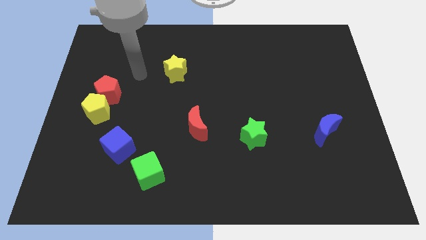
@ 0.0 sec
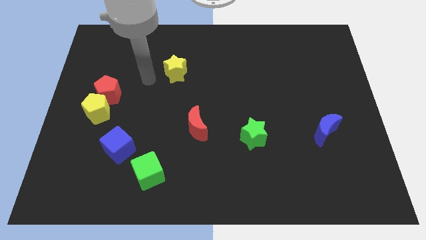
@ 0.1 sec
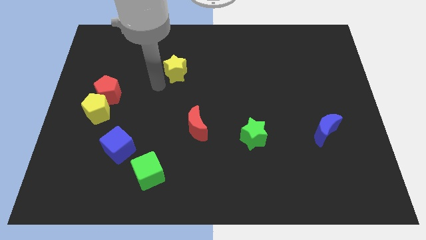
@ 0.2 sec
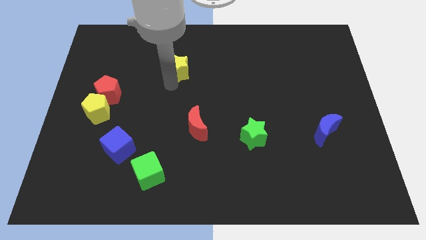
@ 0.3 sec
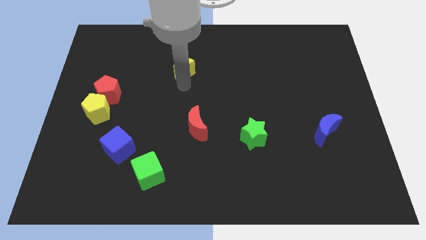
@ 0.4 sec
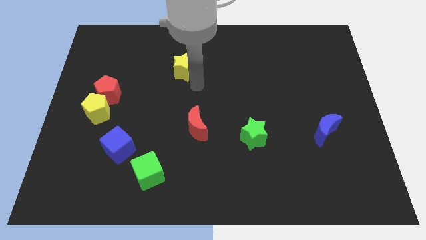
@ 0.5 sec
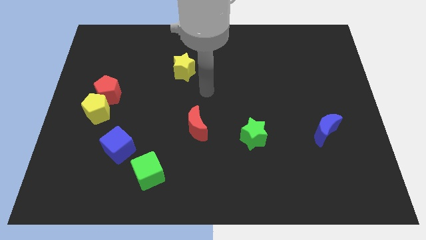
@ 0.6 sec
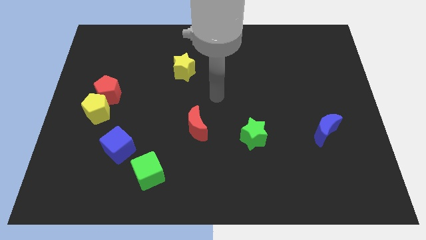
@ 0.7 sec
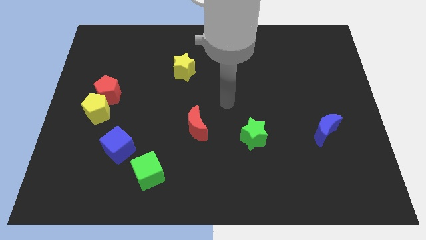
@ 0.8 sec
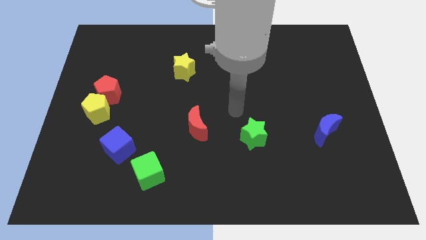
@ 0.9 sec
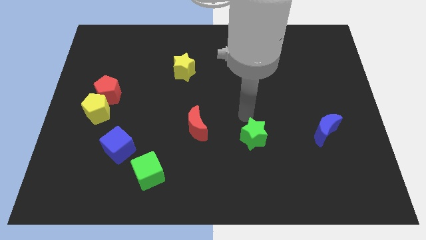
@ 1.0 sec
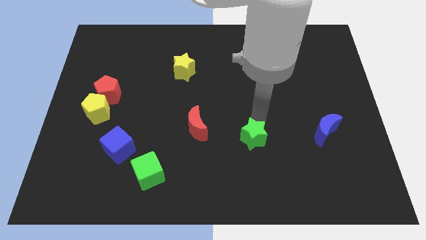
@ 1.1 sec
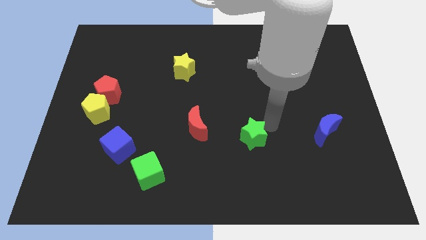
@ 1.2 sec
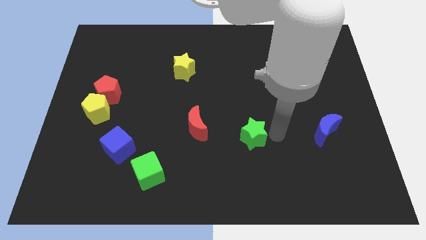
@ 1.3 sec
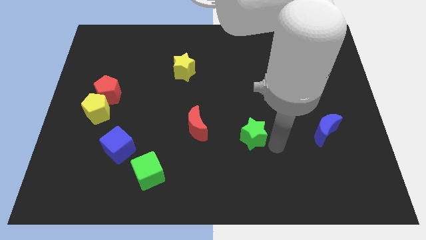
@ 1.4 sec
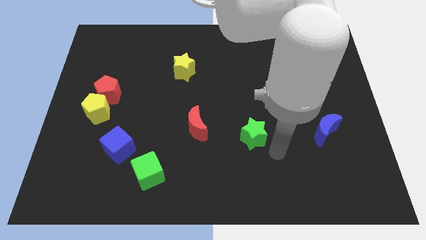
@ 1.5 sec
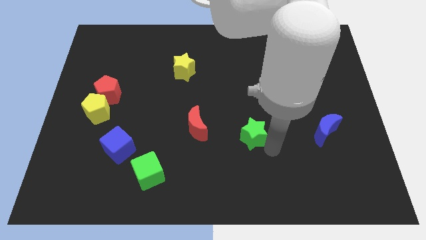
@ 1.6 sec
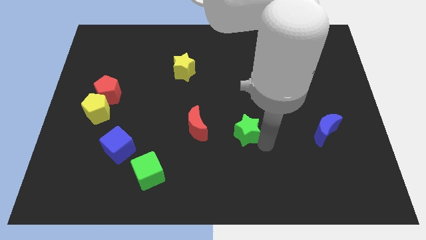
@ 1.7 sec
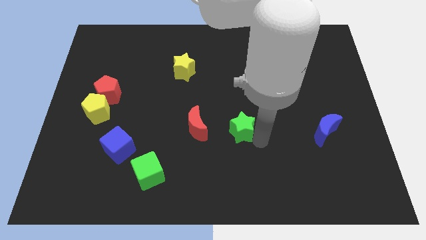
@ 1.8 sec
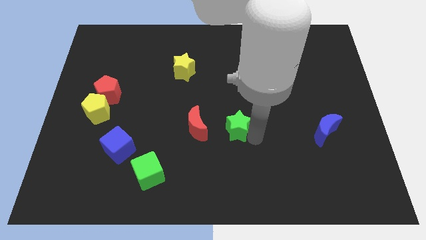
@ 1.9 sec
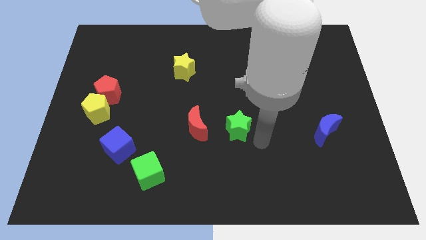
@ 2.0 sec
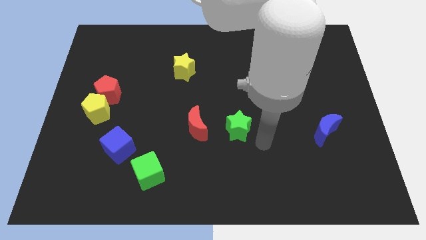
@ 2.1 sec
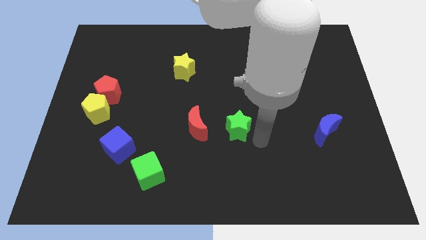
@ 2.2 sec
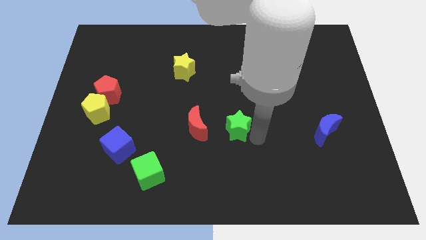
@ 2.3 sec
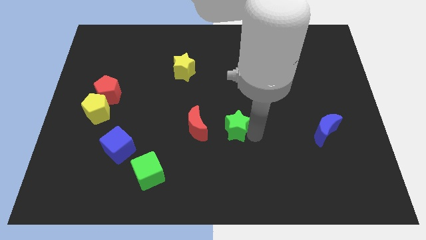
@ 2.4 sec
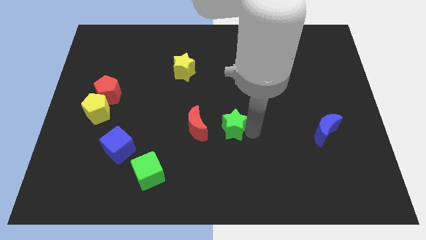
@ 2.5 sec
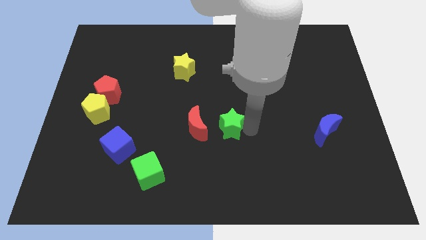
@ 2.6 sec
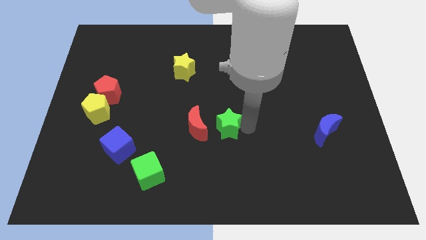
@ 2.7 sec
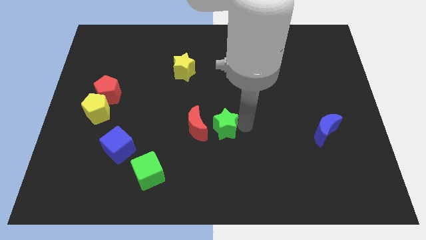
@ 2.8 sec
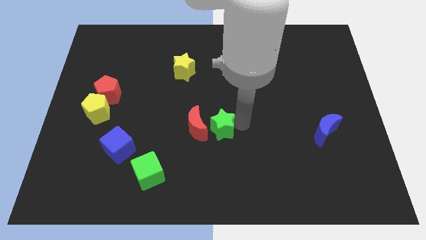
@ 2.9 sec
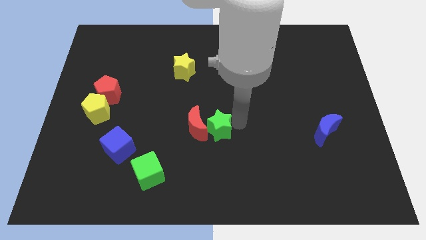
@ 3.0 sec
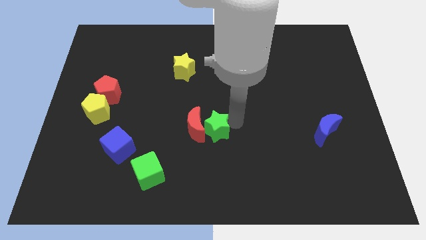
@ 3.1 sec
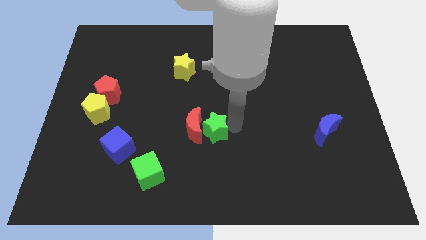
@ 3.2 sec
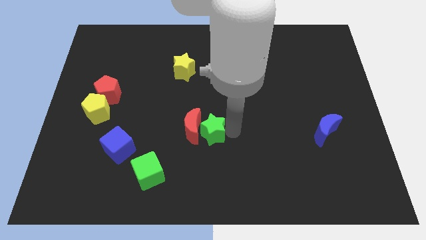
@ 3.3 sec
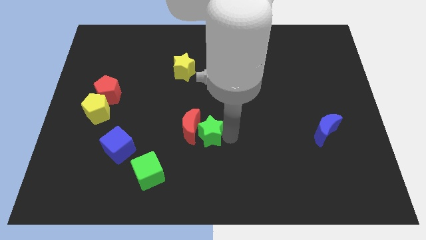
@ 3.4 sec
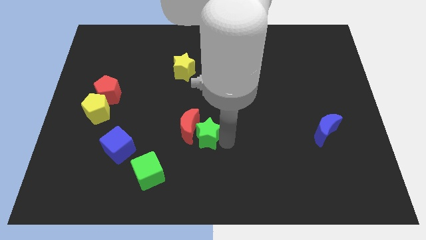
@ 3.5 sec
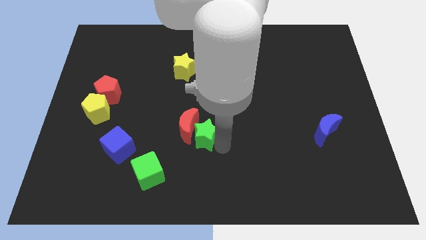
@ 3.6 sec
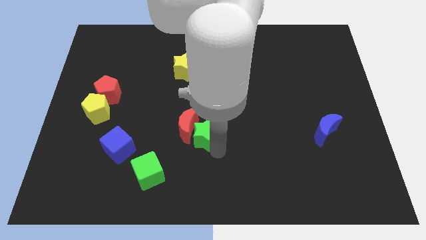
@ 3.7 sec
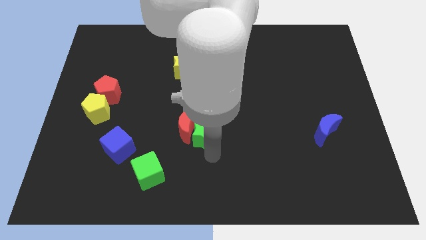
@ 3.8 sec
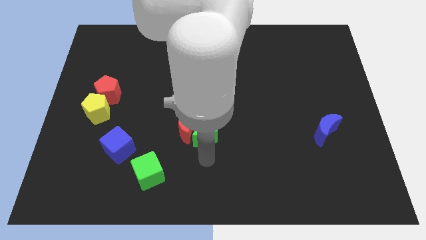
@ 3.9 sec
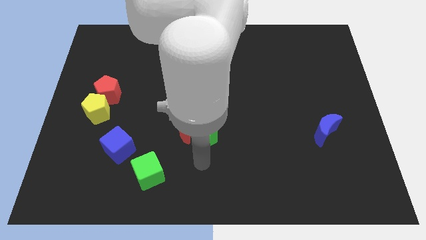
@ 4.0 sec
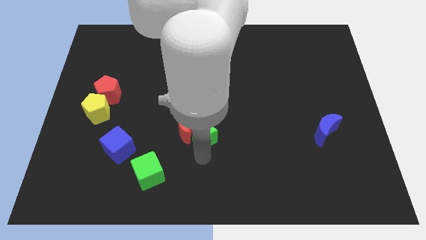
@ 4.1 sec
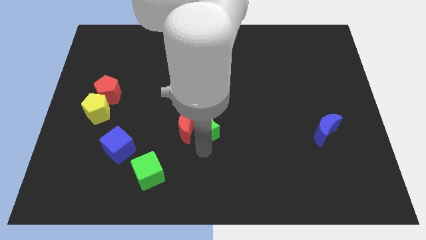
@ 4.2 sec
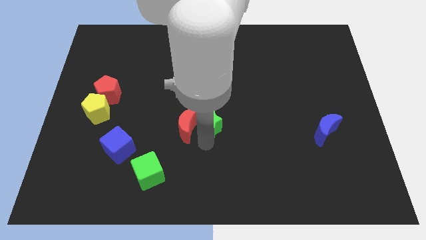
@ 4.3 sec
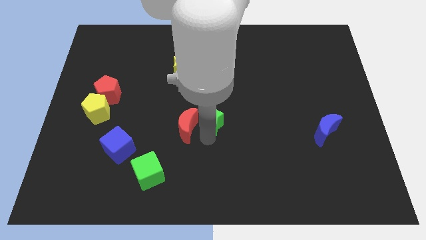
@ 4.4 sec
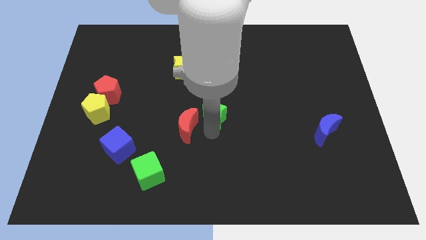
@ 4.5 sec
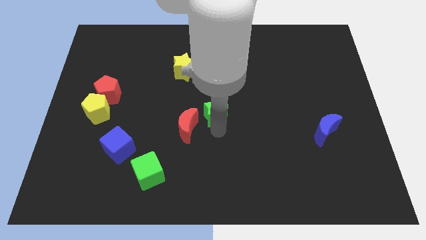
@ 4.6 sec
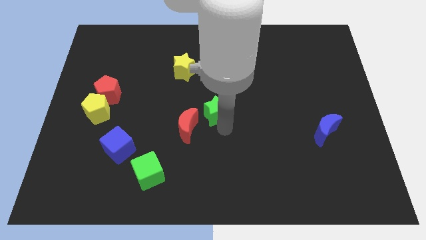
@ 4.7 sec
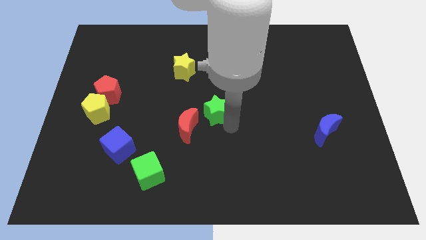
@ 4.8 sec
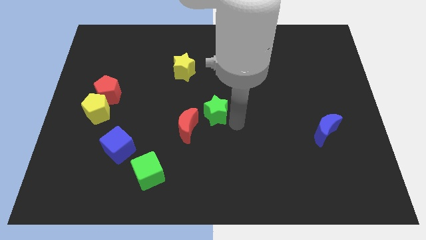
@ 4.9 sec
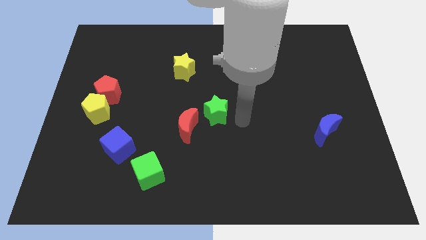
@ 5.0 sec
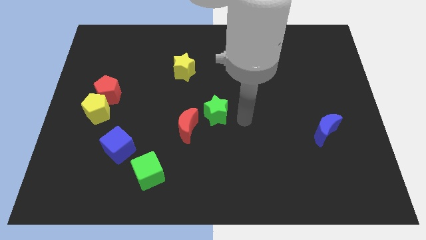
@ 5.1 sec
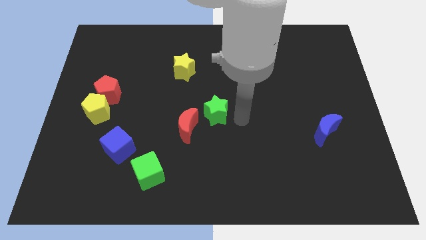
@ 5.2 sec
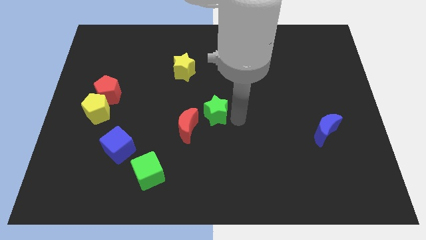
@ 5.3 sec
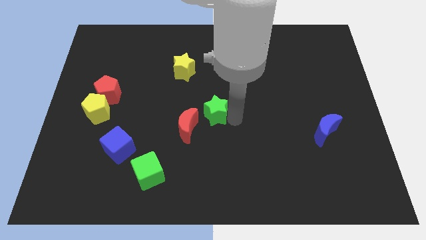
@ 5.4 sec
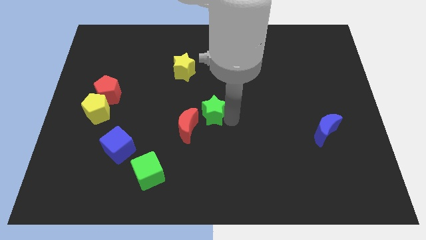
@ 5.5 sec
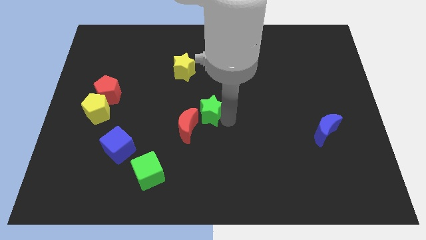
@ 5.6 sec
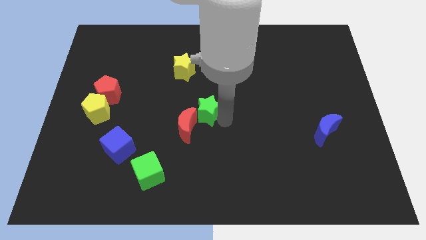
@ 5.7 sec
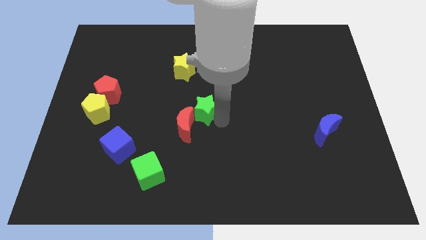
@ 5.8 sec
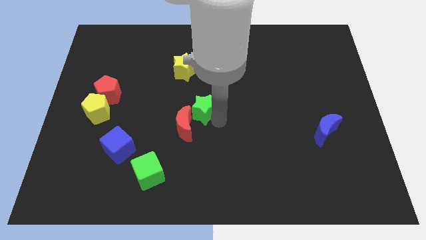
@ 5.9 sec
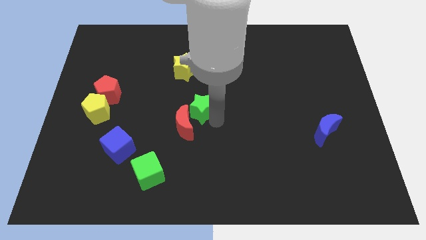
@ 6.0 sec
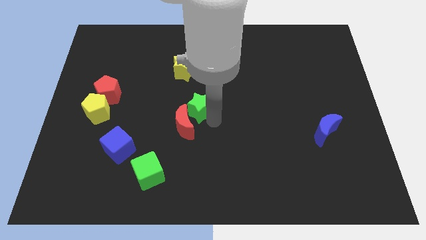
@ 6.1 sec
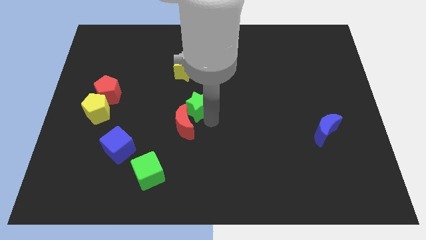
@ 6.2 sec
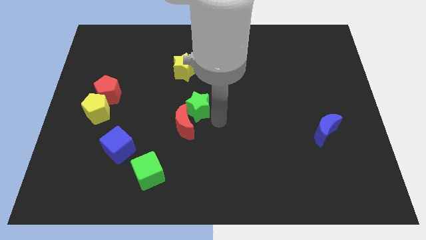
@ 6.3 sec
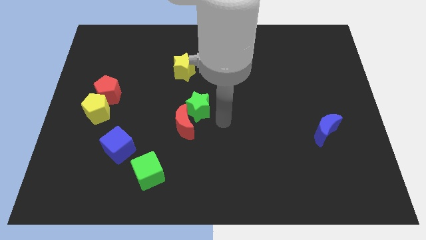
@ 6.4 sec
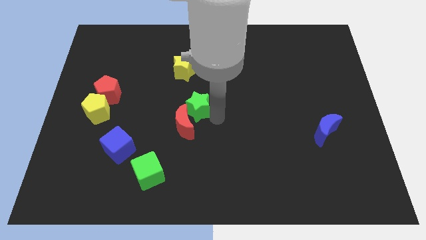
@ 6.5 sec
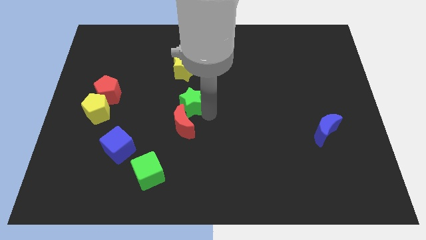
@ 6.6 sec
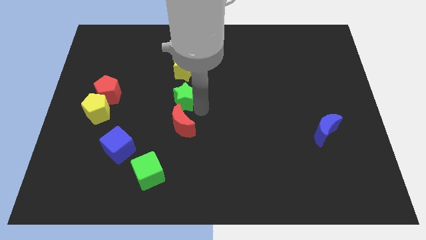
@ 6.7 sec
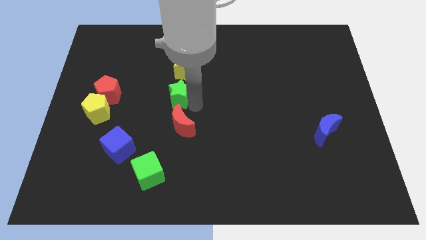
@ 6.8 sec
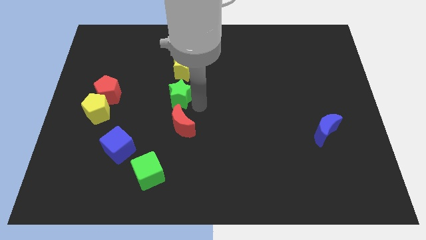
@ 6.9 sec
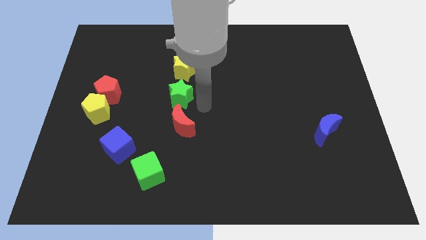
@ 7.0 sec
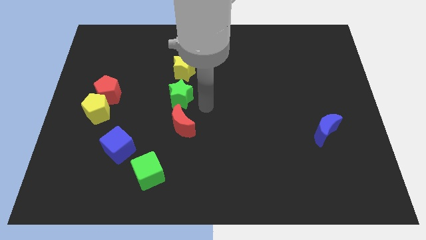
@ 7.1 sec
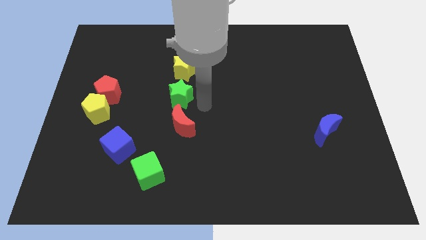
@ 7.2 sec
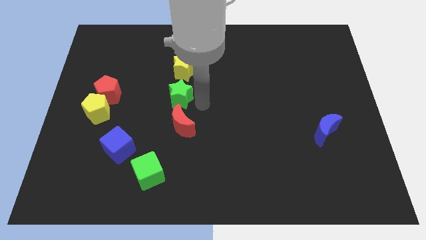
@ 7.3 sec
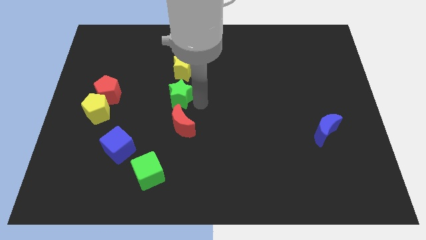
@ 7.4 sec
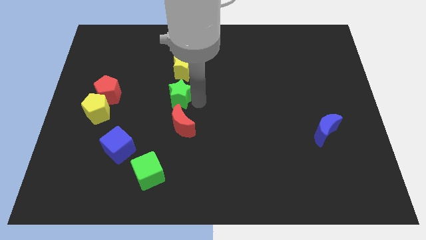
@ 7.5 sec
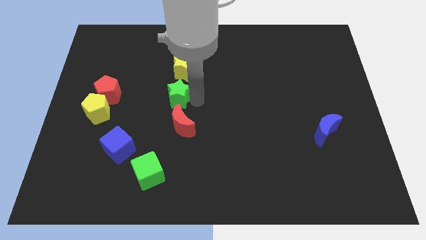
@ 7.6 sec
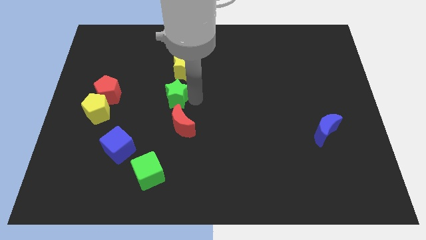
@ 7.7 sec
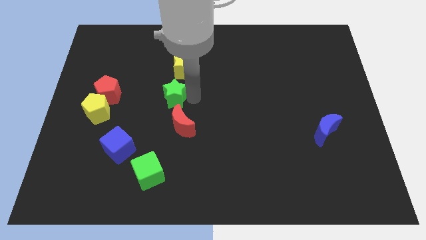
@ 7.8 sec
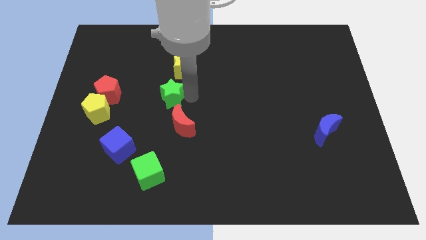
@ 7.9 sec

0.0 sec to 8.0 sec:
slide the green star diagonally down and to the left of the yellow star
